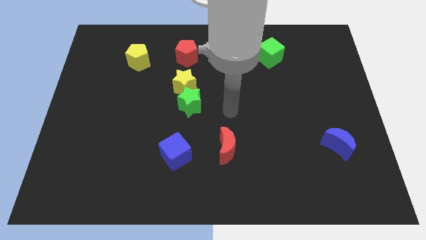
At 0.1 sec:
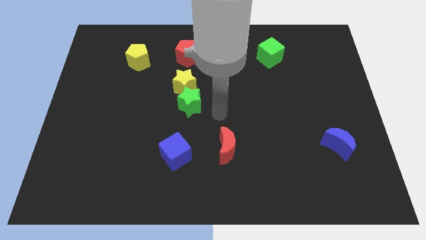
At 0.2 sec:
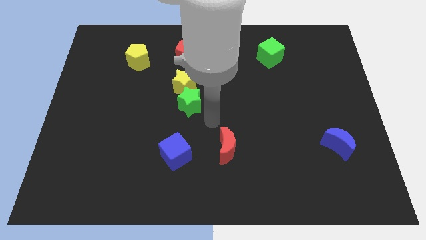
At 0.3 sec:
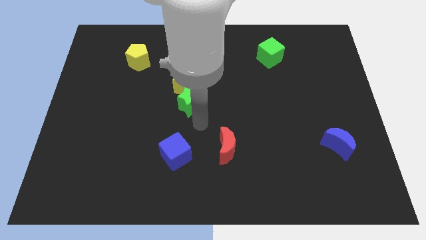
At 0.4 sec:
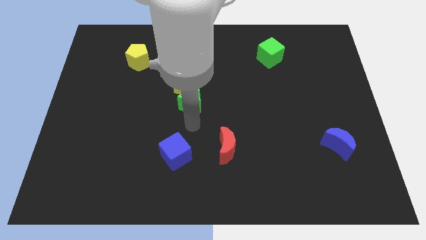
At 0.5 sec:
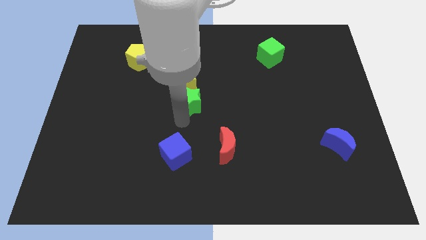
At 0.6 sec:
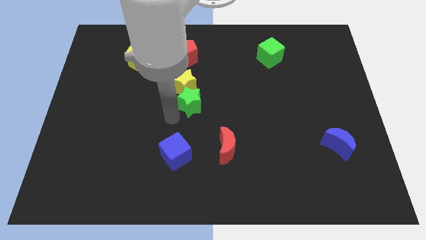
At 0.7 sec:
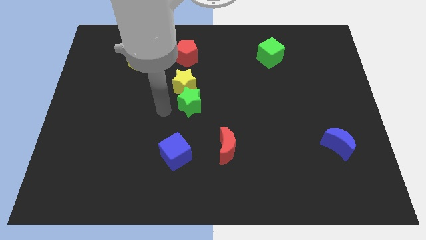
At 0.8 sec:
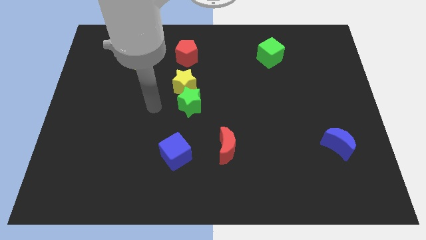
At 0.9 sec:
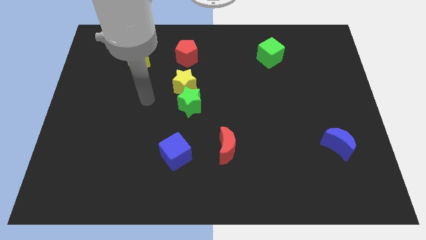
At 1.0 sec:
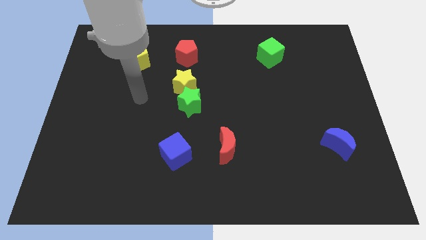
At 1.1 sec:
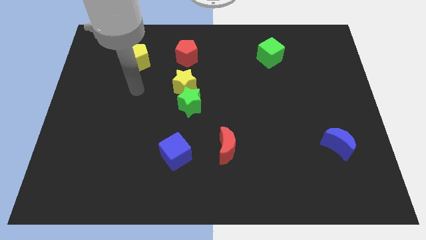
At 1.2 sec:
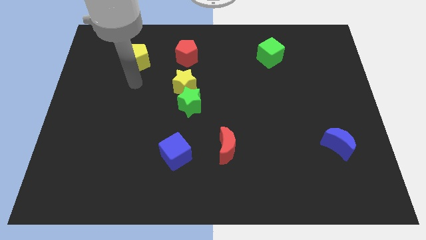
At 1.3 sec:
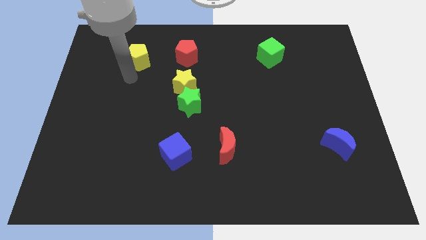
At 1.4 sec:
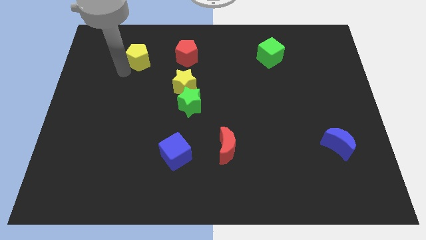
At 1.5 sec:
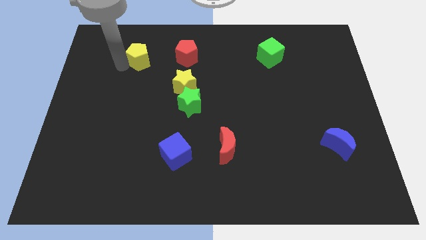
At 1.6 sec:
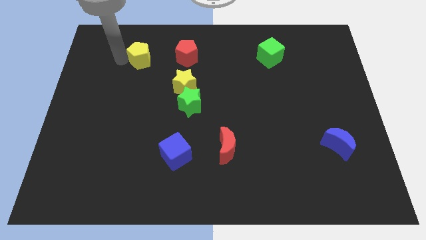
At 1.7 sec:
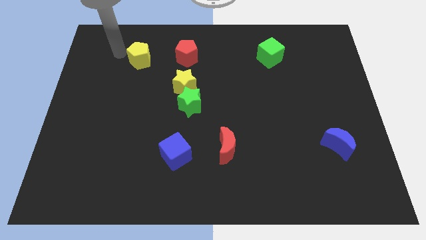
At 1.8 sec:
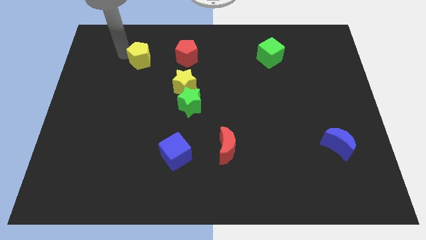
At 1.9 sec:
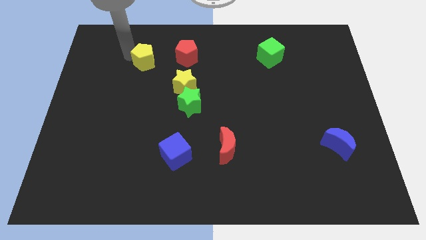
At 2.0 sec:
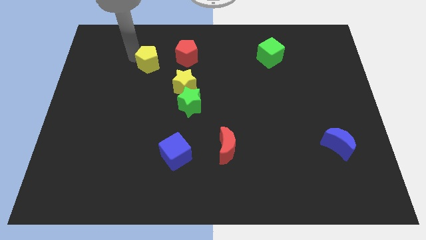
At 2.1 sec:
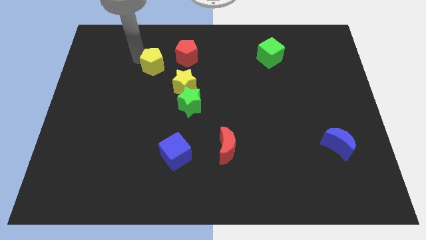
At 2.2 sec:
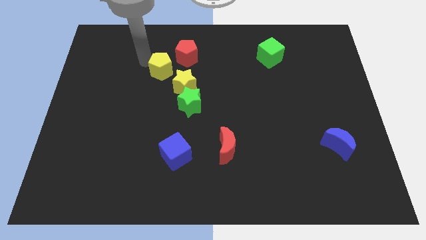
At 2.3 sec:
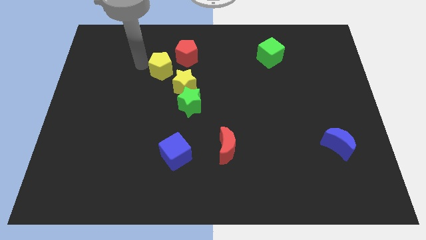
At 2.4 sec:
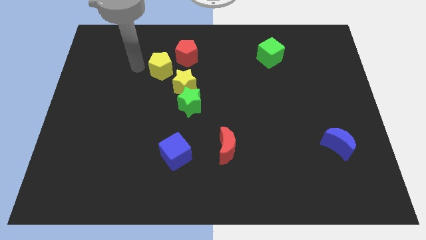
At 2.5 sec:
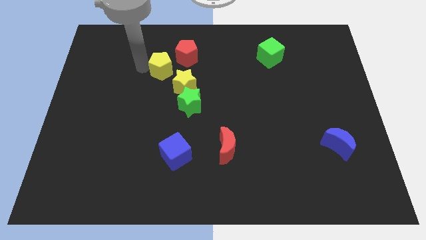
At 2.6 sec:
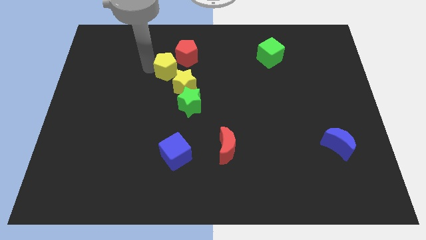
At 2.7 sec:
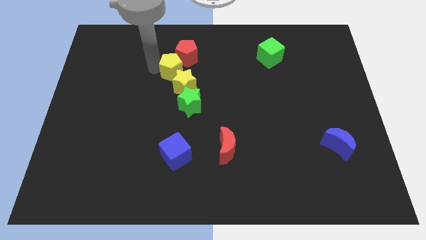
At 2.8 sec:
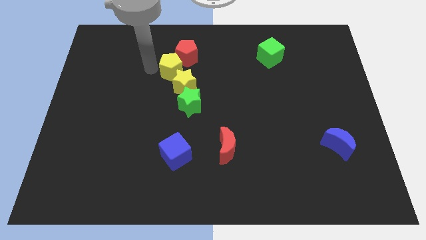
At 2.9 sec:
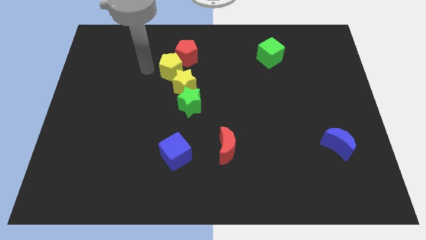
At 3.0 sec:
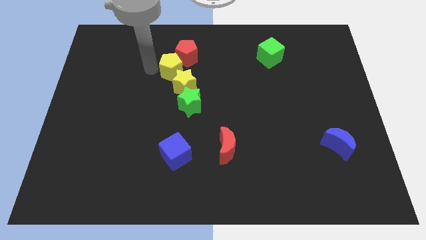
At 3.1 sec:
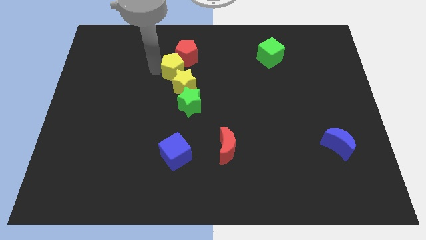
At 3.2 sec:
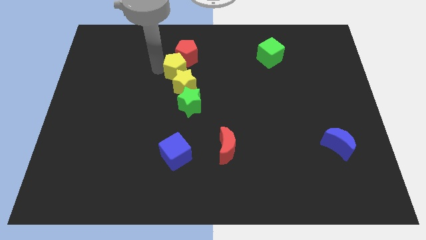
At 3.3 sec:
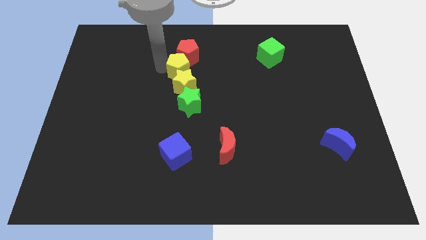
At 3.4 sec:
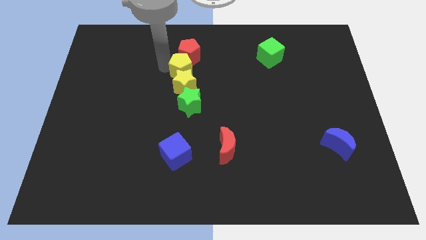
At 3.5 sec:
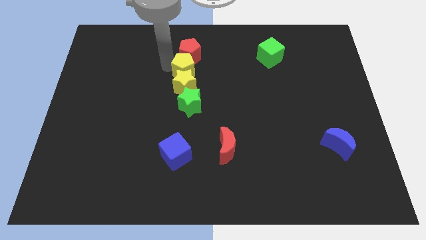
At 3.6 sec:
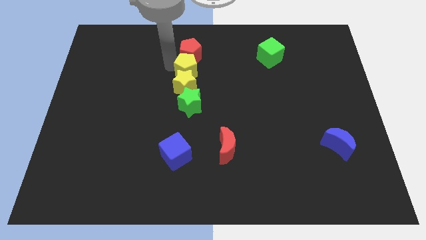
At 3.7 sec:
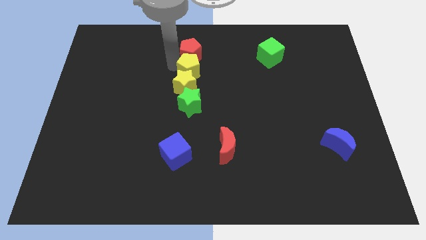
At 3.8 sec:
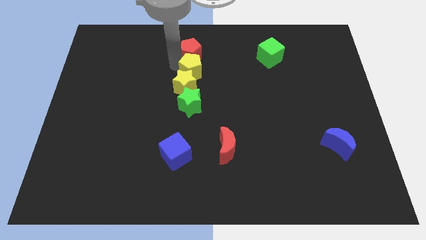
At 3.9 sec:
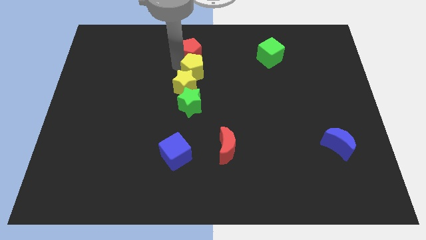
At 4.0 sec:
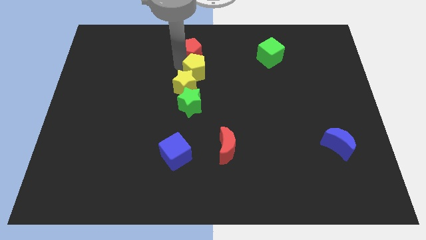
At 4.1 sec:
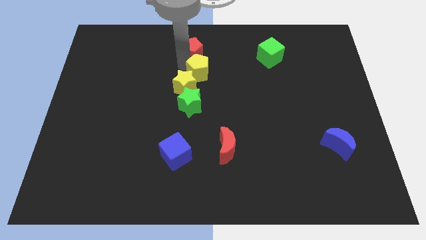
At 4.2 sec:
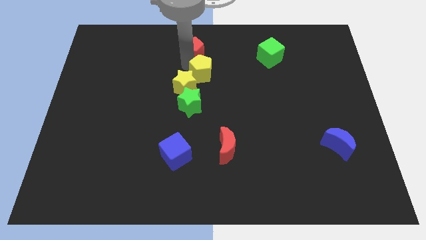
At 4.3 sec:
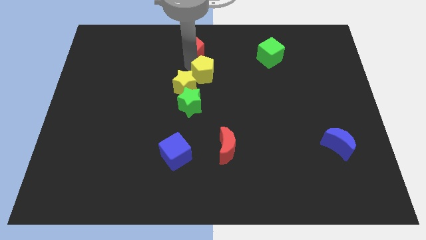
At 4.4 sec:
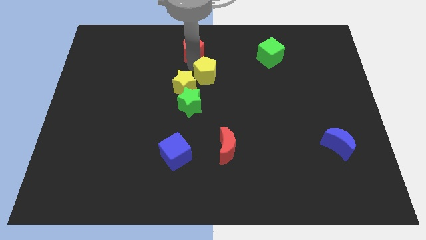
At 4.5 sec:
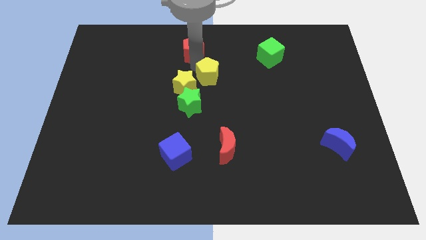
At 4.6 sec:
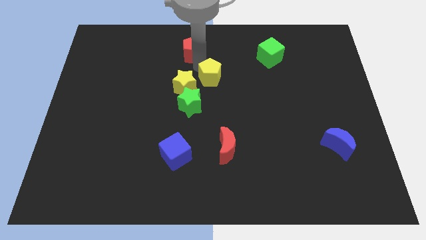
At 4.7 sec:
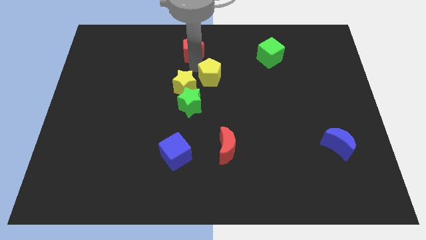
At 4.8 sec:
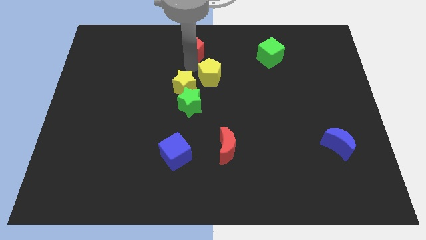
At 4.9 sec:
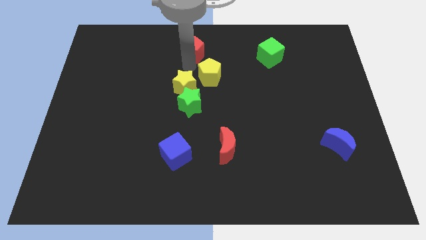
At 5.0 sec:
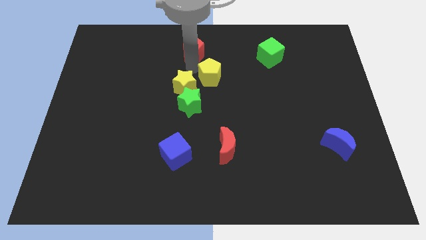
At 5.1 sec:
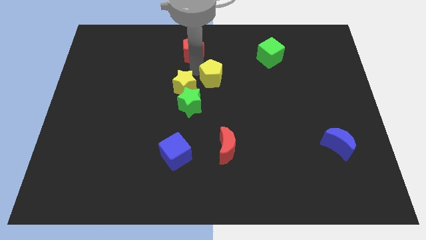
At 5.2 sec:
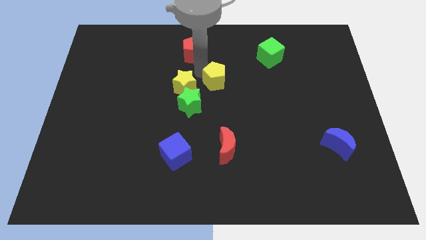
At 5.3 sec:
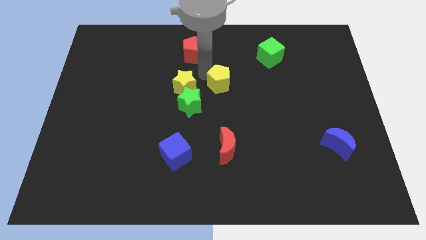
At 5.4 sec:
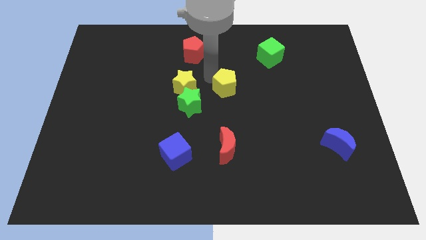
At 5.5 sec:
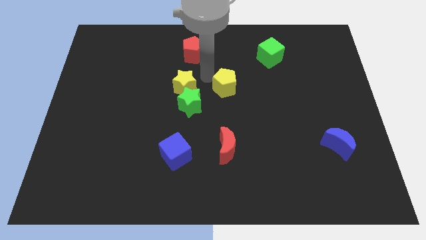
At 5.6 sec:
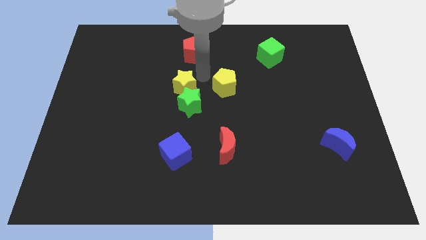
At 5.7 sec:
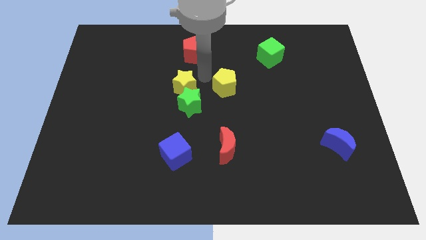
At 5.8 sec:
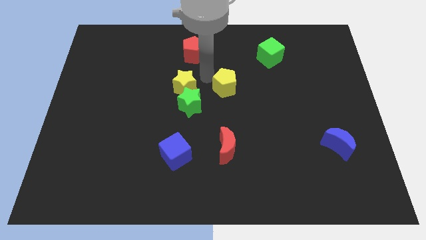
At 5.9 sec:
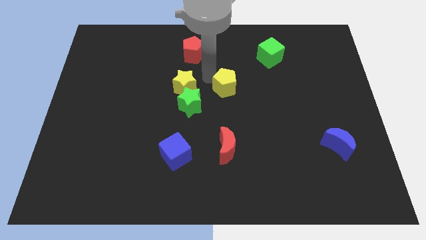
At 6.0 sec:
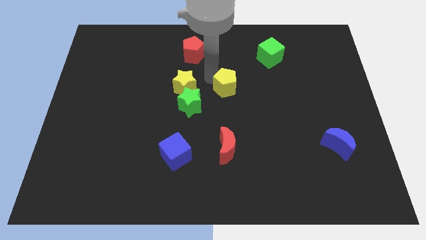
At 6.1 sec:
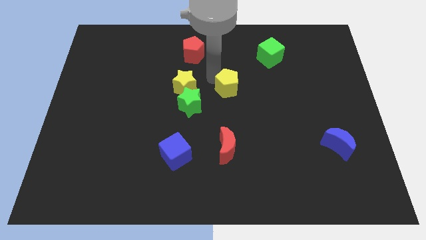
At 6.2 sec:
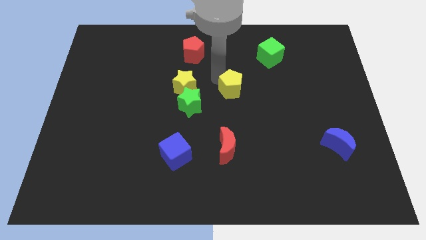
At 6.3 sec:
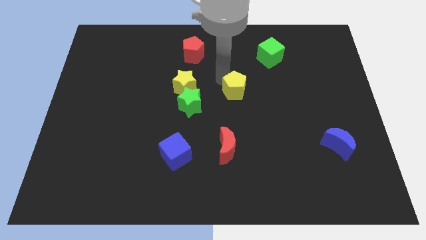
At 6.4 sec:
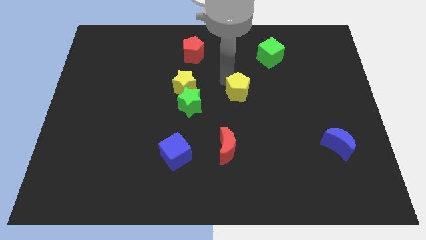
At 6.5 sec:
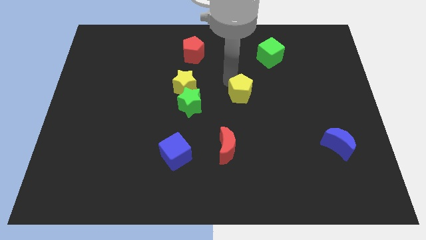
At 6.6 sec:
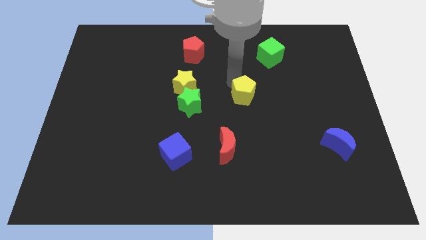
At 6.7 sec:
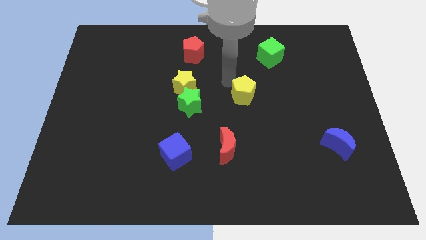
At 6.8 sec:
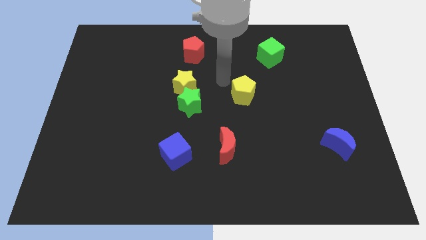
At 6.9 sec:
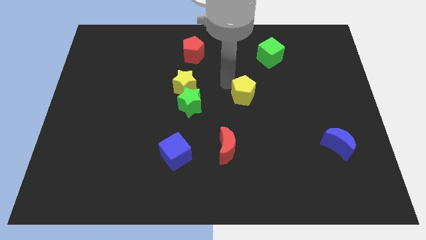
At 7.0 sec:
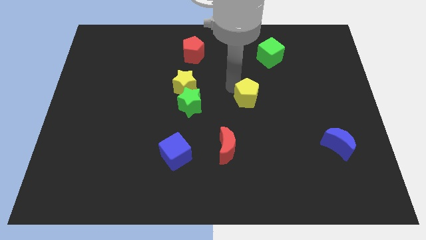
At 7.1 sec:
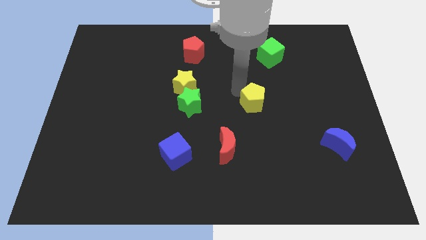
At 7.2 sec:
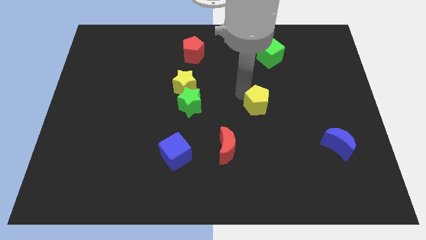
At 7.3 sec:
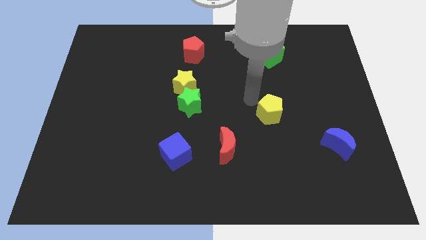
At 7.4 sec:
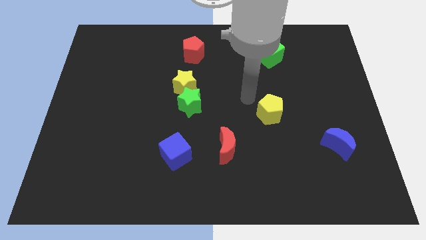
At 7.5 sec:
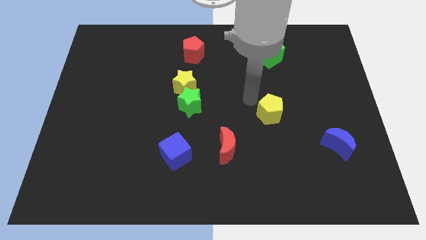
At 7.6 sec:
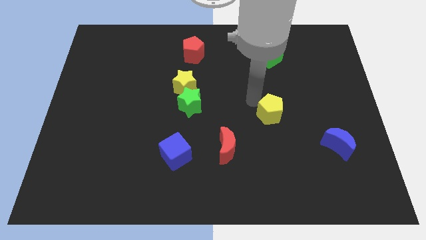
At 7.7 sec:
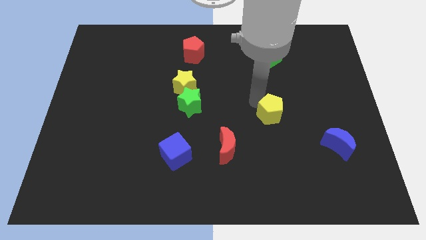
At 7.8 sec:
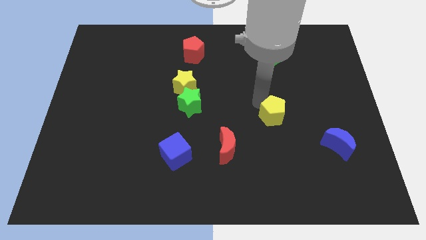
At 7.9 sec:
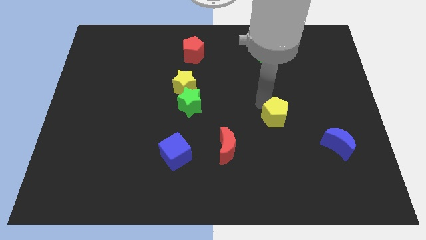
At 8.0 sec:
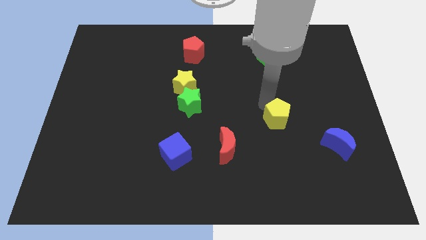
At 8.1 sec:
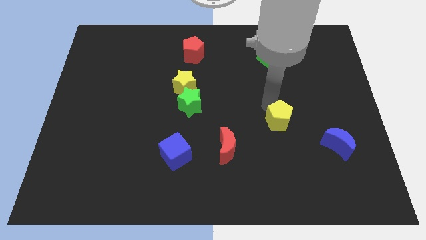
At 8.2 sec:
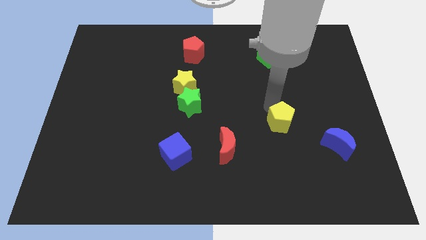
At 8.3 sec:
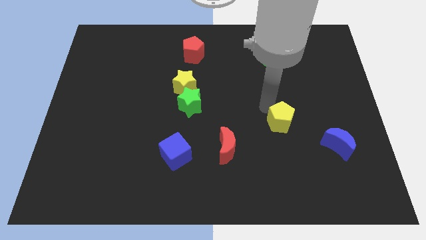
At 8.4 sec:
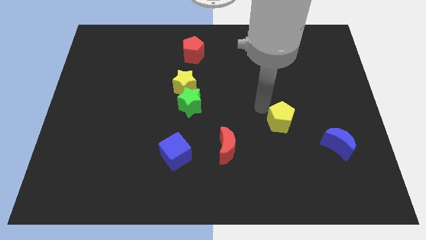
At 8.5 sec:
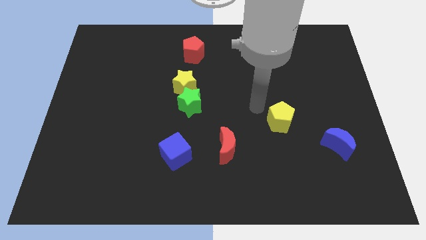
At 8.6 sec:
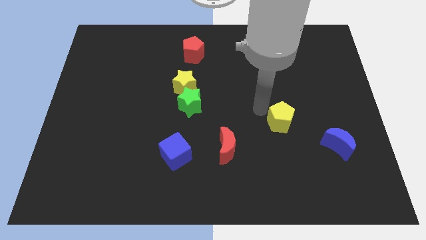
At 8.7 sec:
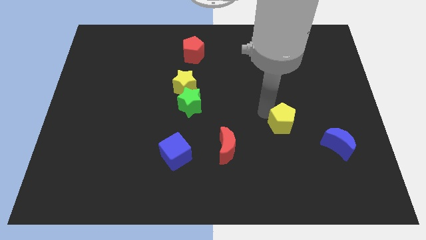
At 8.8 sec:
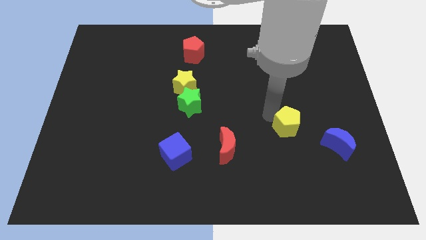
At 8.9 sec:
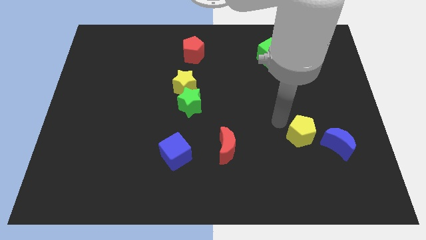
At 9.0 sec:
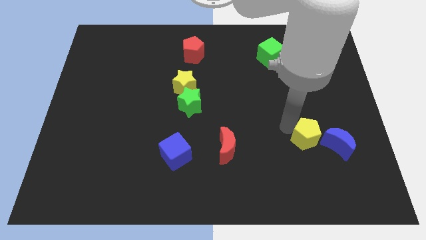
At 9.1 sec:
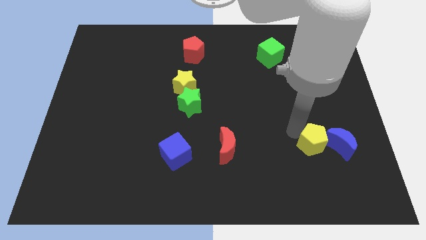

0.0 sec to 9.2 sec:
move the yellow pentagon towards the blue moon
